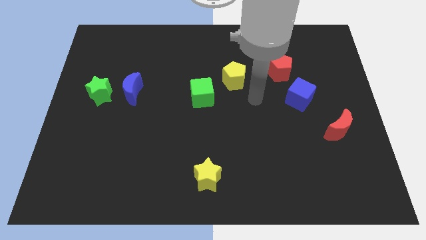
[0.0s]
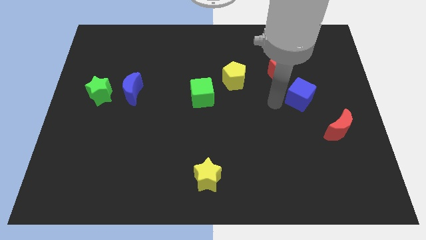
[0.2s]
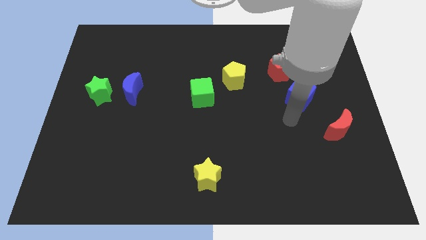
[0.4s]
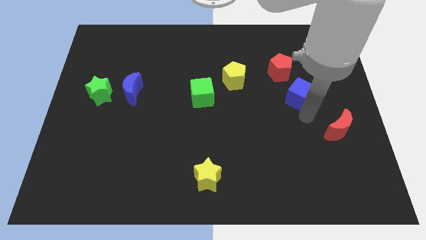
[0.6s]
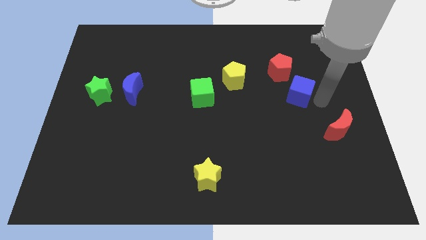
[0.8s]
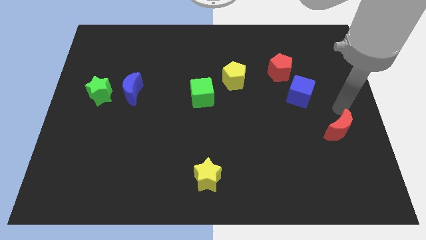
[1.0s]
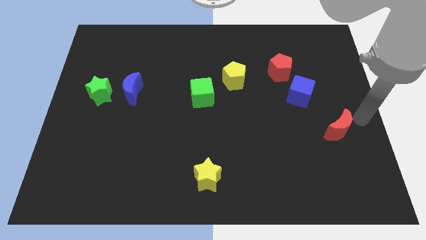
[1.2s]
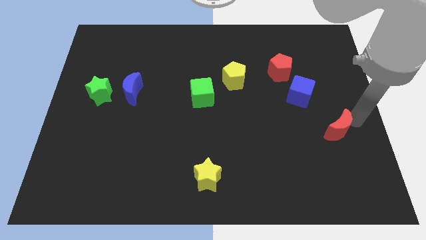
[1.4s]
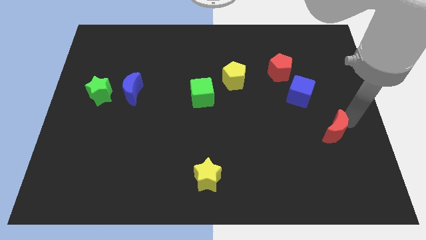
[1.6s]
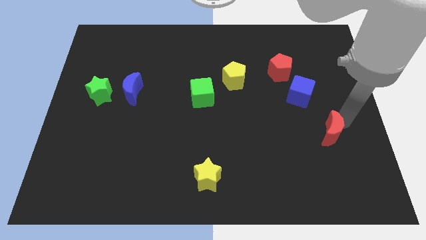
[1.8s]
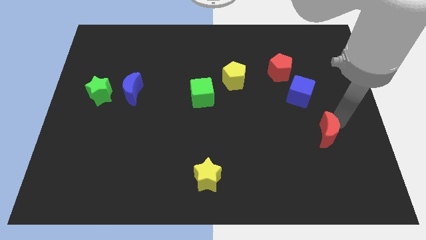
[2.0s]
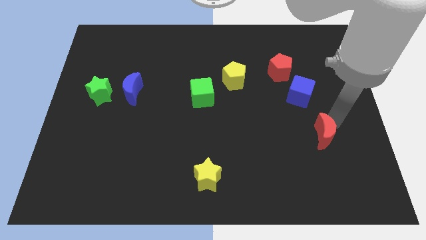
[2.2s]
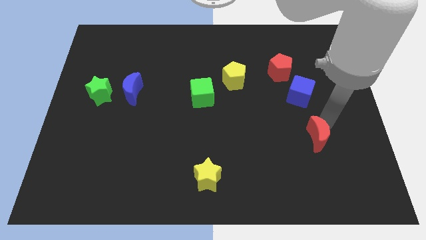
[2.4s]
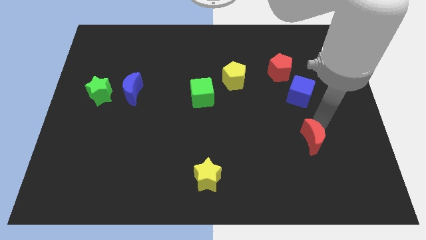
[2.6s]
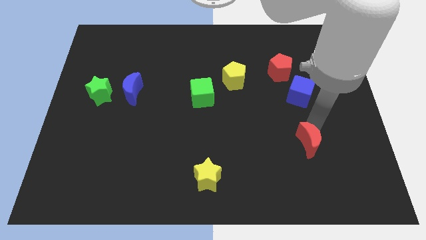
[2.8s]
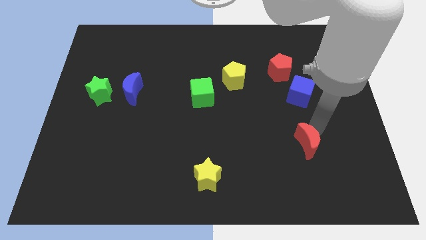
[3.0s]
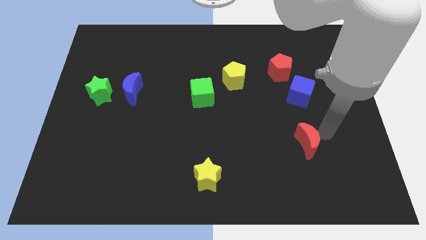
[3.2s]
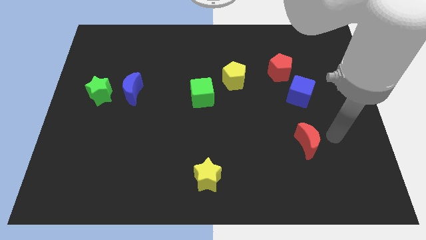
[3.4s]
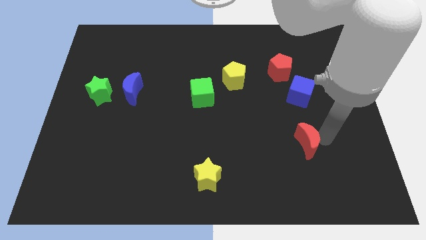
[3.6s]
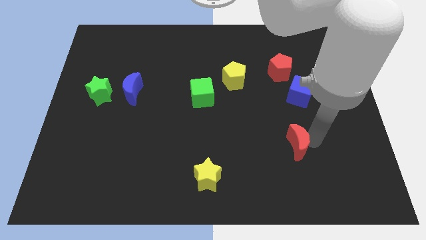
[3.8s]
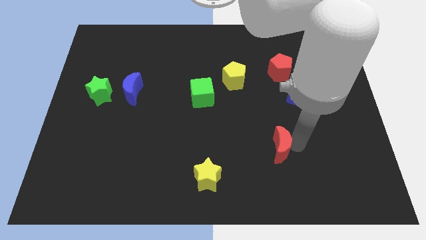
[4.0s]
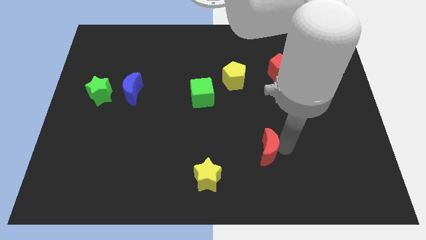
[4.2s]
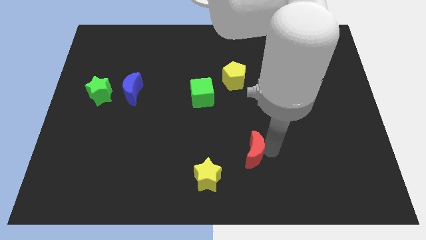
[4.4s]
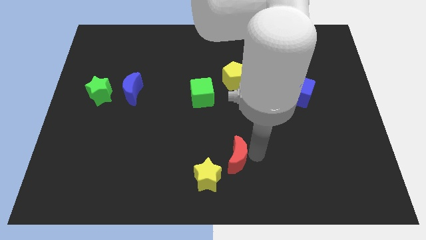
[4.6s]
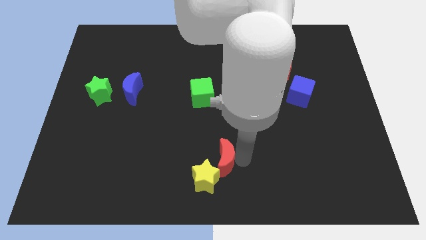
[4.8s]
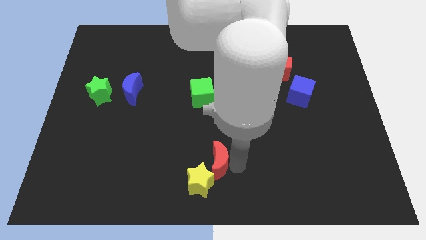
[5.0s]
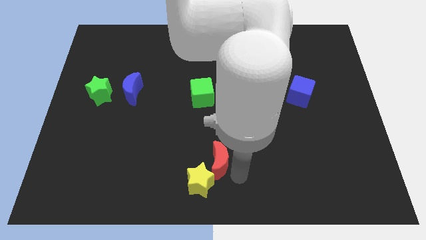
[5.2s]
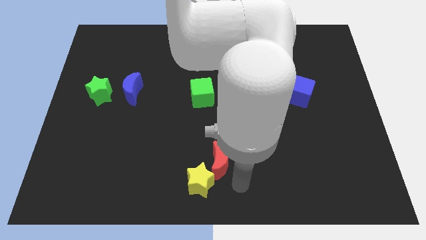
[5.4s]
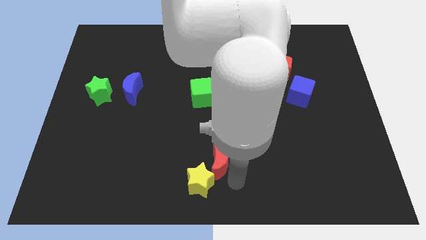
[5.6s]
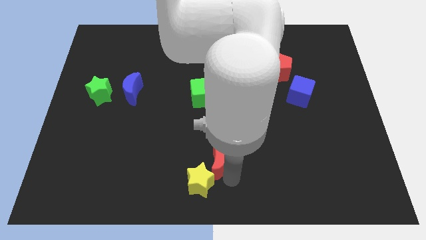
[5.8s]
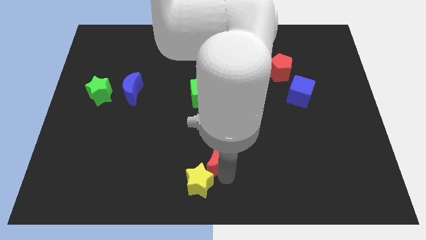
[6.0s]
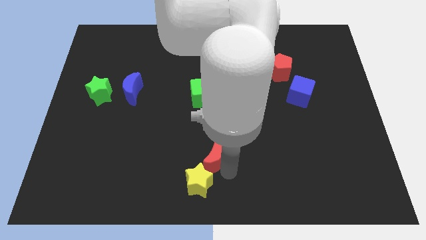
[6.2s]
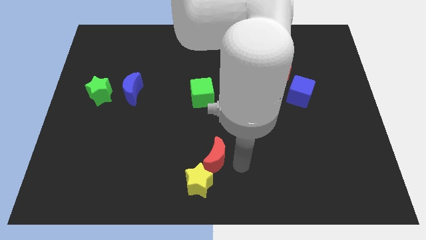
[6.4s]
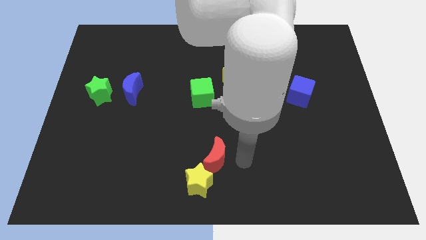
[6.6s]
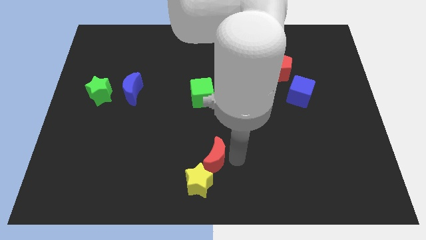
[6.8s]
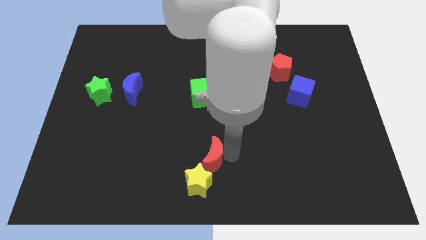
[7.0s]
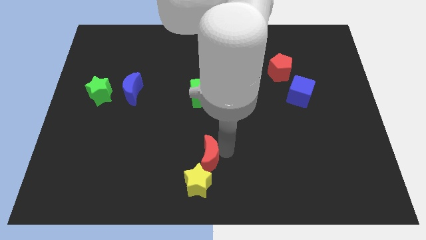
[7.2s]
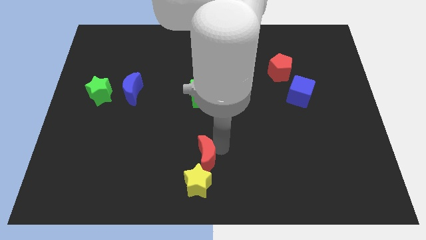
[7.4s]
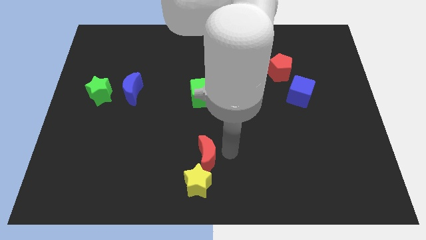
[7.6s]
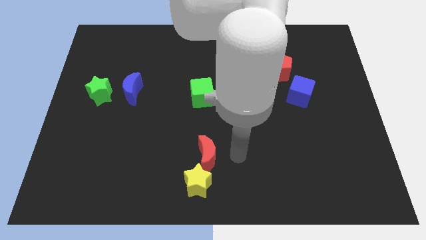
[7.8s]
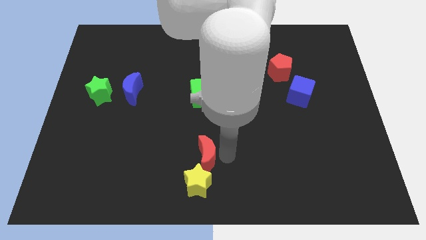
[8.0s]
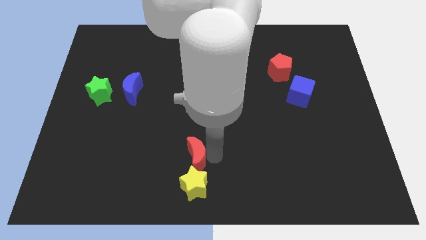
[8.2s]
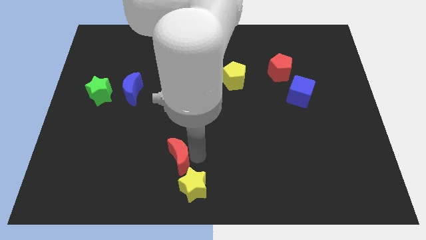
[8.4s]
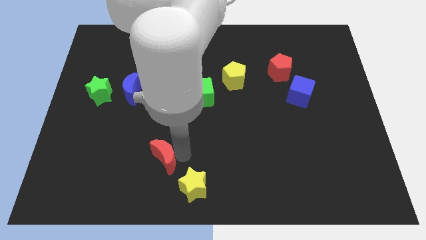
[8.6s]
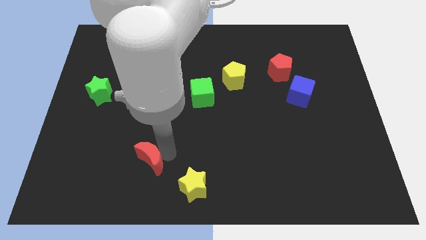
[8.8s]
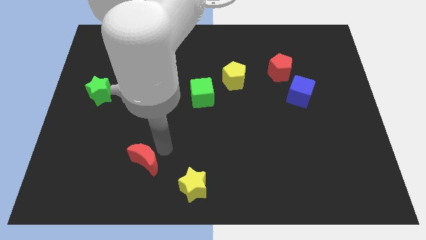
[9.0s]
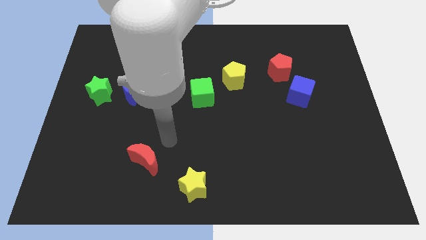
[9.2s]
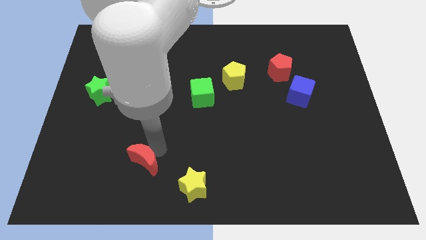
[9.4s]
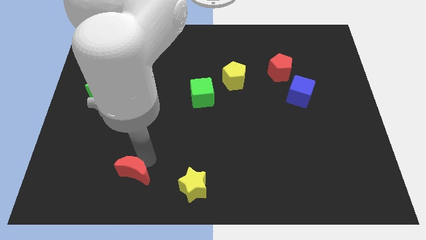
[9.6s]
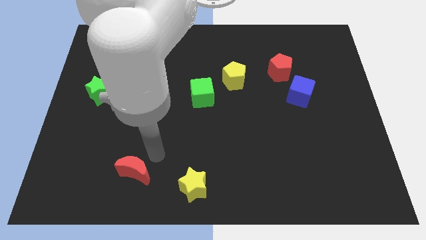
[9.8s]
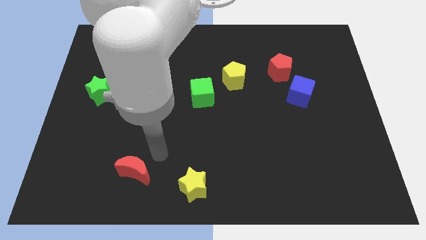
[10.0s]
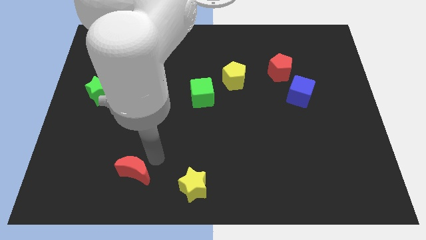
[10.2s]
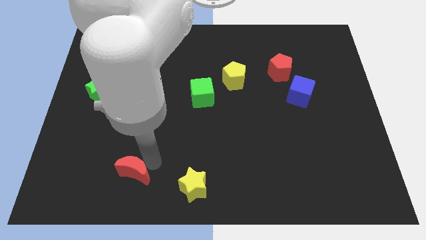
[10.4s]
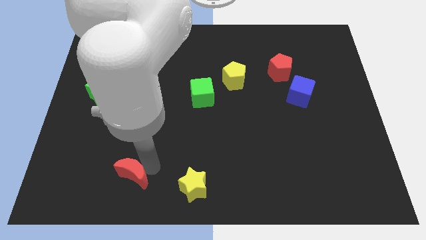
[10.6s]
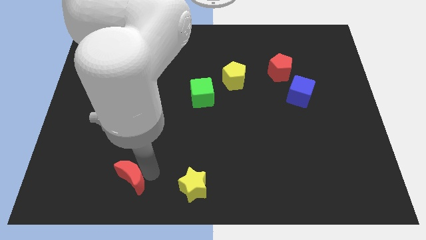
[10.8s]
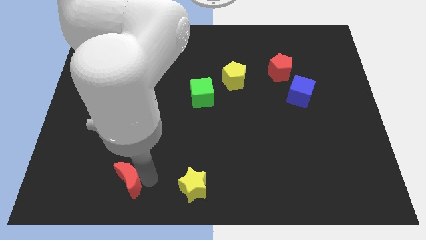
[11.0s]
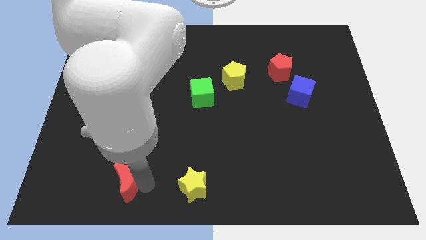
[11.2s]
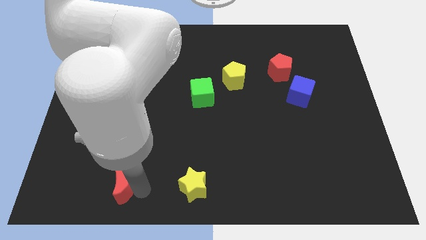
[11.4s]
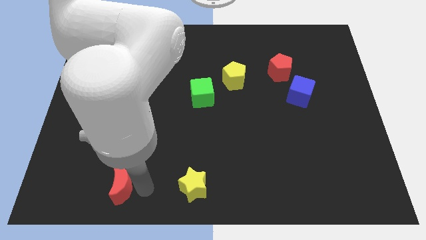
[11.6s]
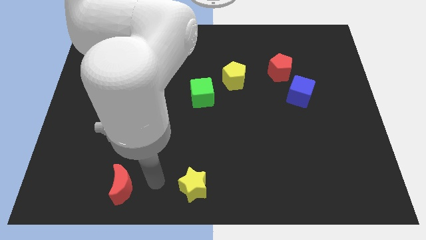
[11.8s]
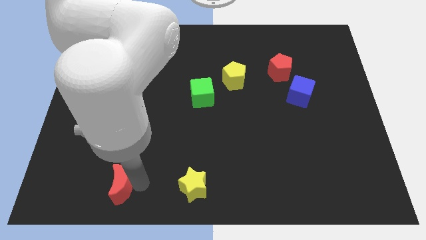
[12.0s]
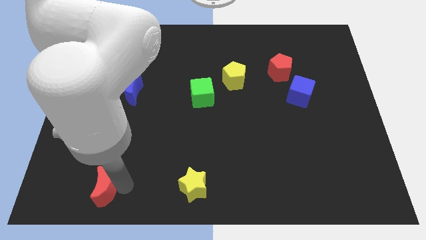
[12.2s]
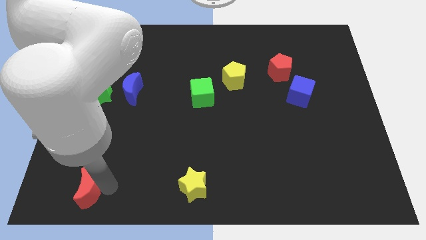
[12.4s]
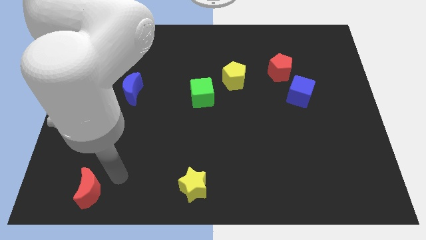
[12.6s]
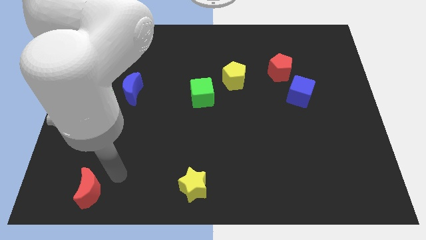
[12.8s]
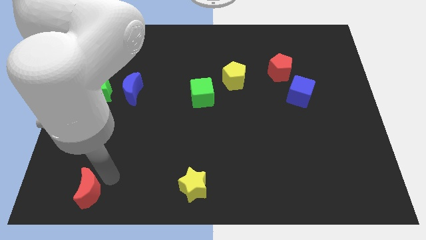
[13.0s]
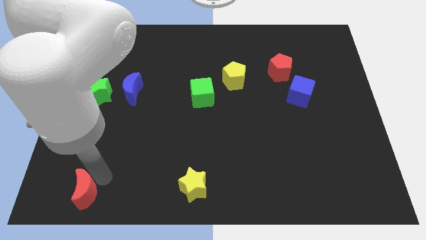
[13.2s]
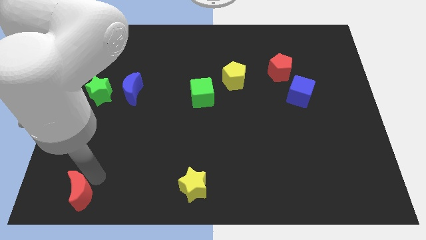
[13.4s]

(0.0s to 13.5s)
move the red moon to the lower left corner

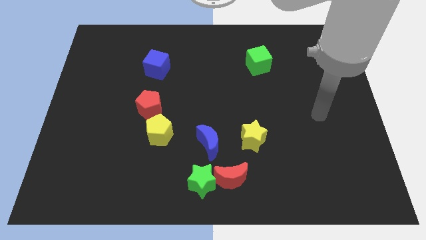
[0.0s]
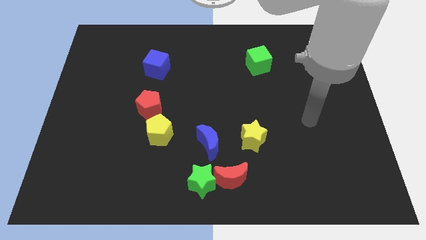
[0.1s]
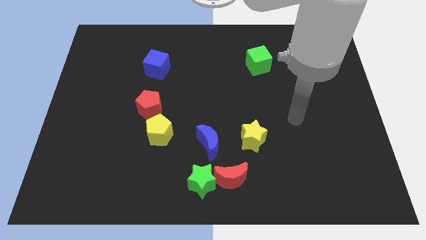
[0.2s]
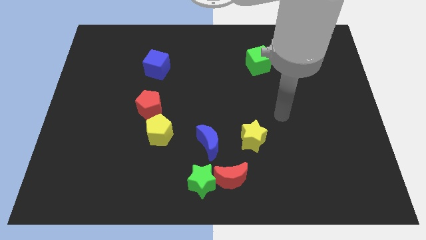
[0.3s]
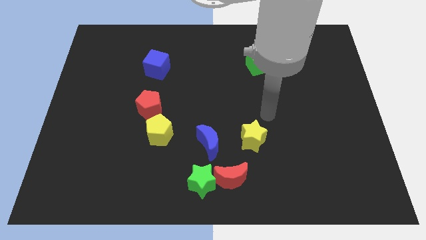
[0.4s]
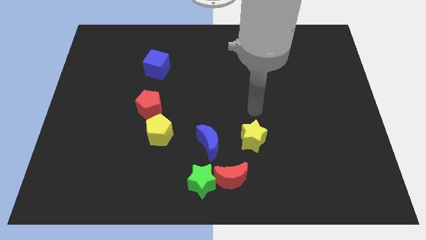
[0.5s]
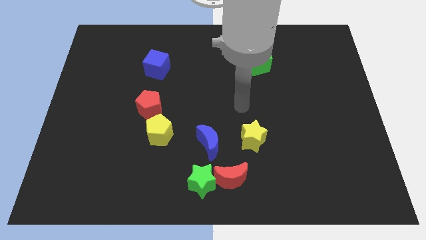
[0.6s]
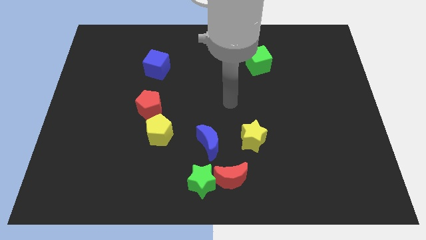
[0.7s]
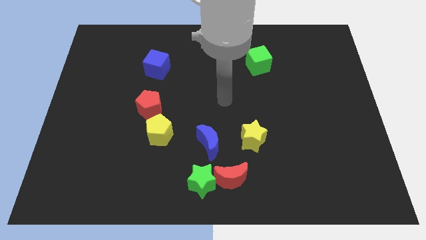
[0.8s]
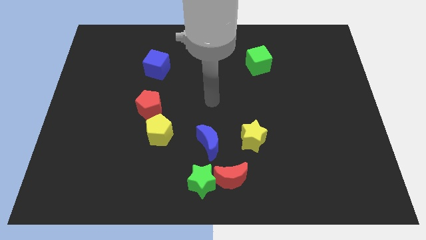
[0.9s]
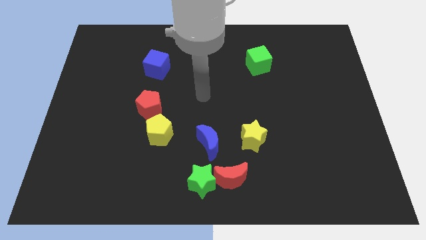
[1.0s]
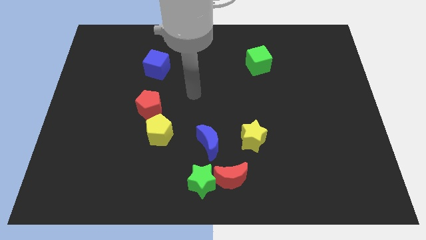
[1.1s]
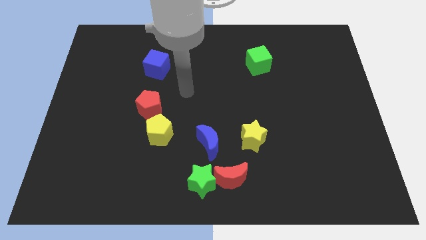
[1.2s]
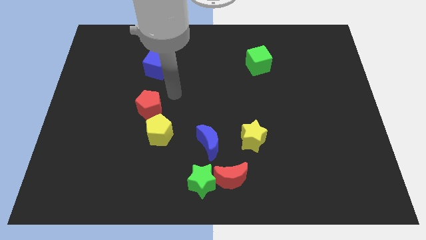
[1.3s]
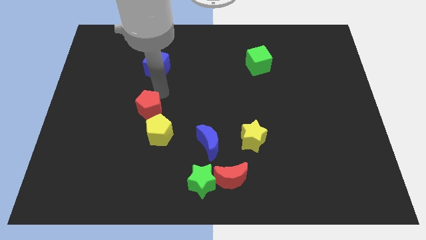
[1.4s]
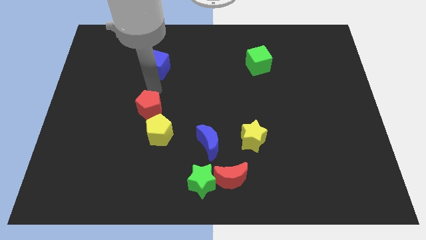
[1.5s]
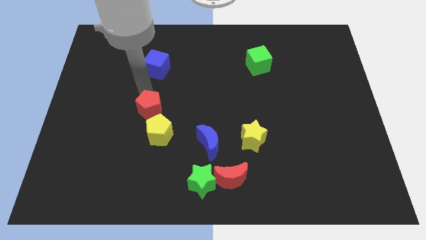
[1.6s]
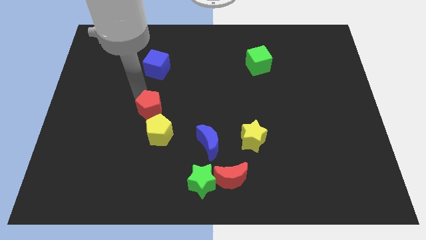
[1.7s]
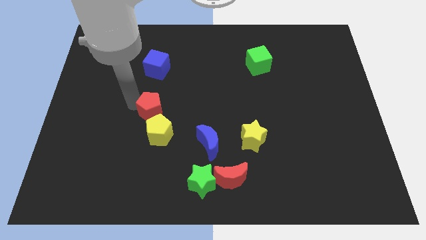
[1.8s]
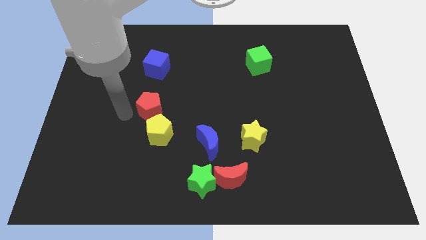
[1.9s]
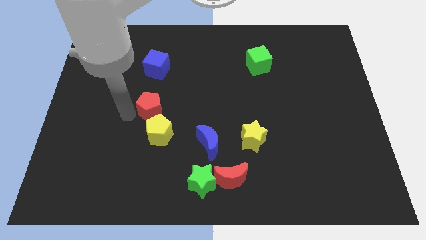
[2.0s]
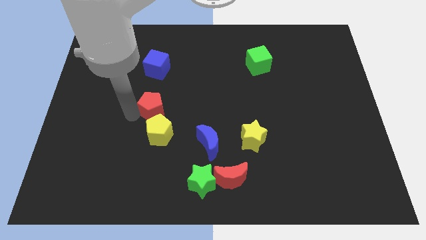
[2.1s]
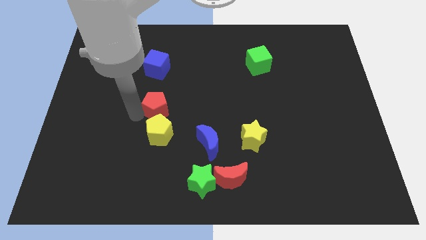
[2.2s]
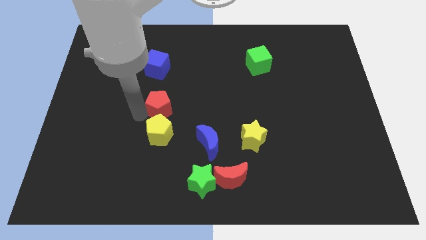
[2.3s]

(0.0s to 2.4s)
slide the red pentagon to the center
